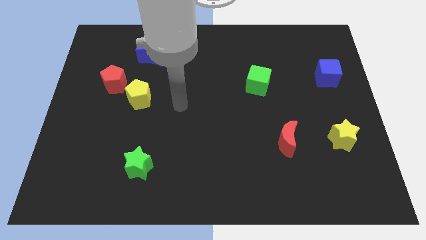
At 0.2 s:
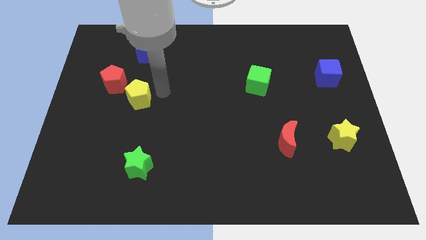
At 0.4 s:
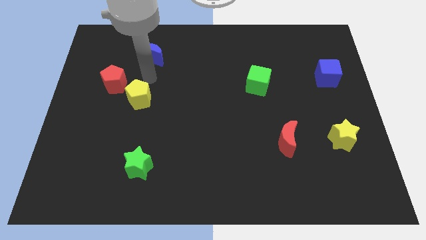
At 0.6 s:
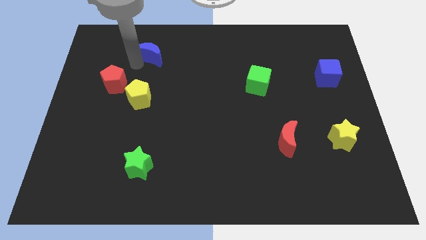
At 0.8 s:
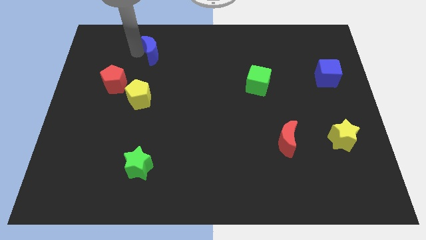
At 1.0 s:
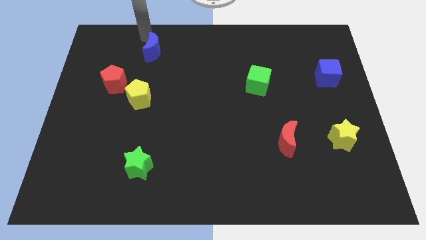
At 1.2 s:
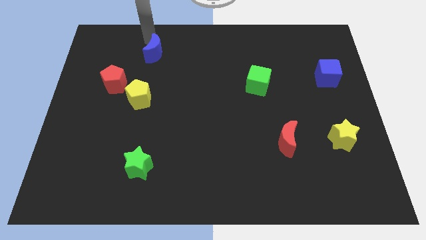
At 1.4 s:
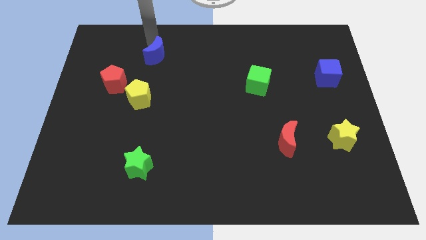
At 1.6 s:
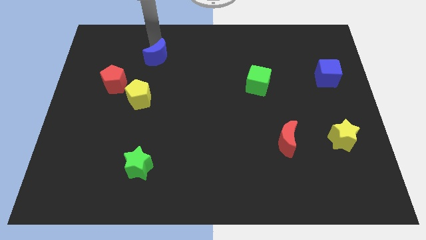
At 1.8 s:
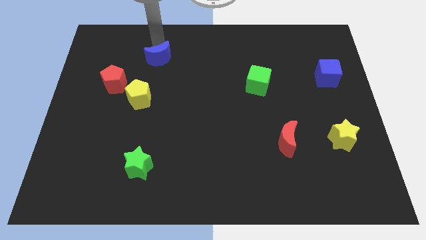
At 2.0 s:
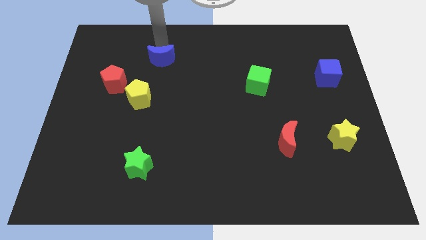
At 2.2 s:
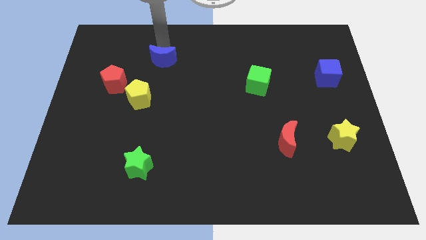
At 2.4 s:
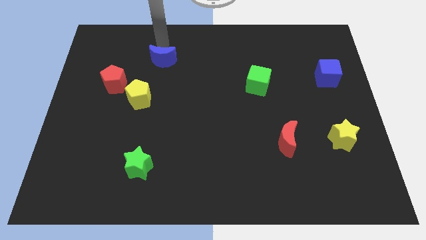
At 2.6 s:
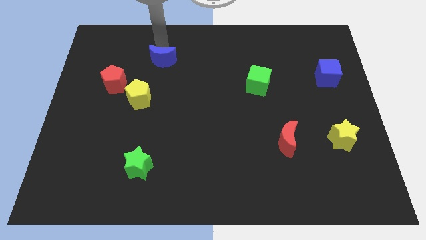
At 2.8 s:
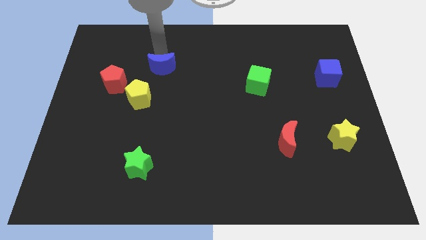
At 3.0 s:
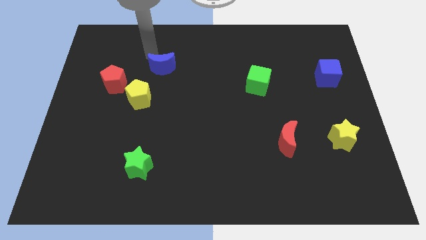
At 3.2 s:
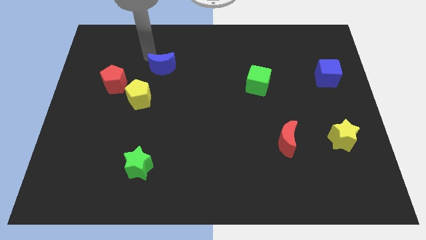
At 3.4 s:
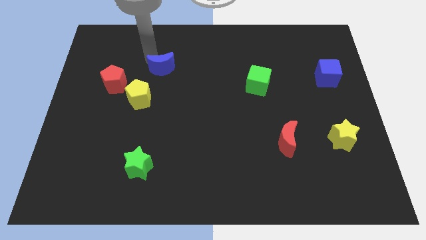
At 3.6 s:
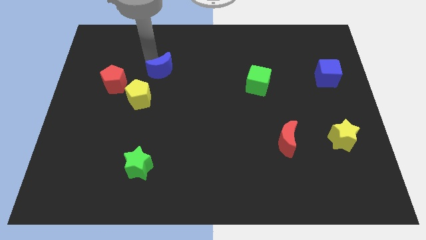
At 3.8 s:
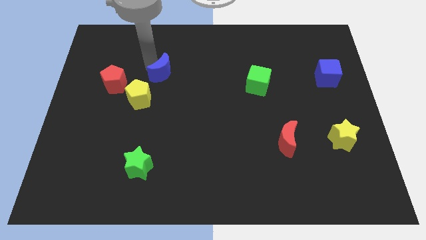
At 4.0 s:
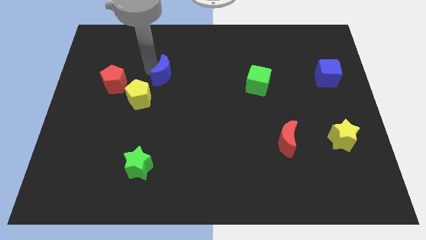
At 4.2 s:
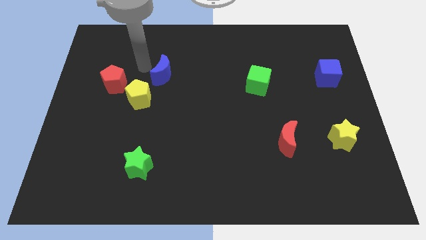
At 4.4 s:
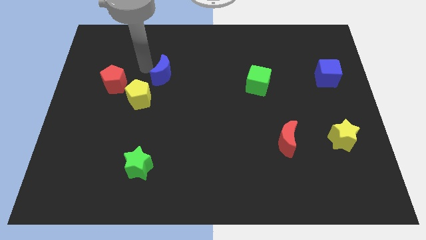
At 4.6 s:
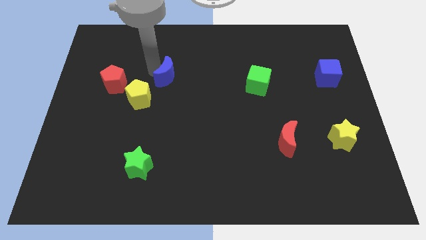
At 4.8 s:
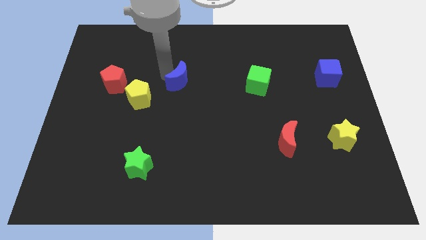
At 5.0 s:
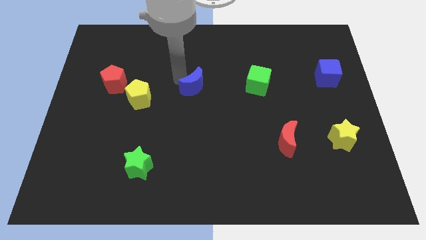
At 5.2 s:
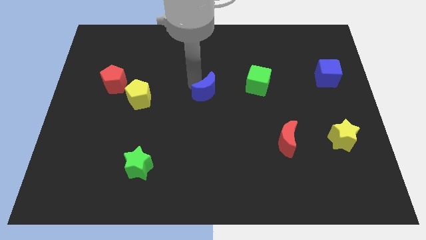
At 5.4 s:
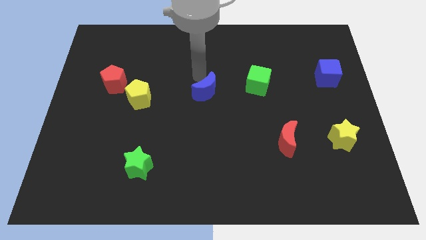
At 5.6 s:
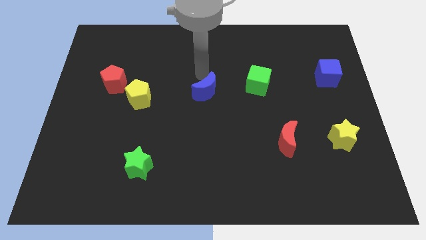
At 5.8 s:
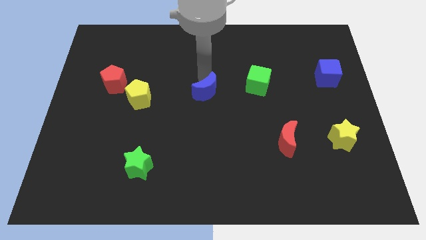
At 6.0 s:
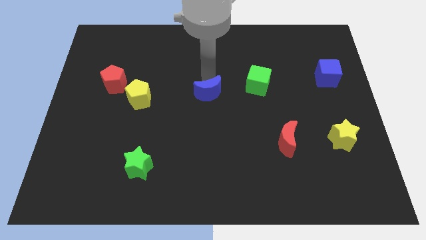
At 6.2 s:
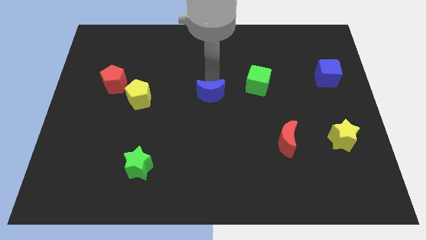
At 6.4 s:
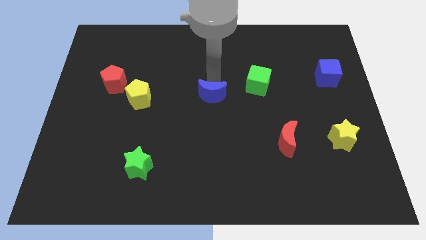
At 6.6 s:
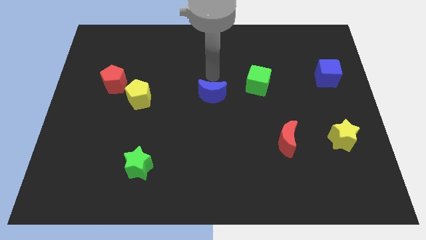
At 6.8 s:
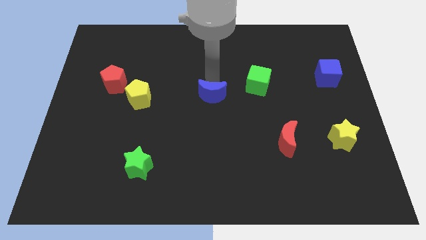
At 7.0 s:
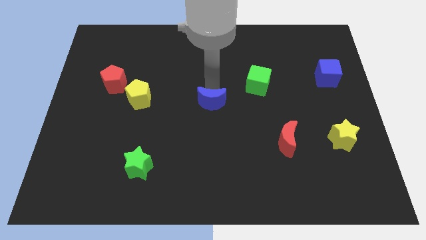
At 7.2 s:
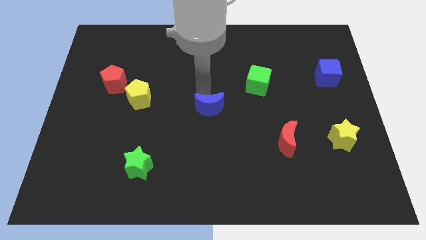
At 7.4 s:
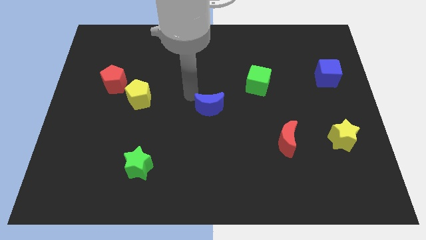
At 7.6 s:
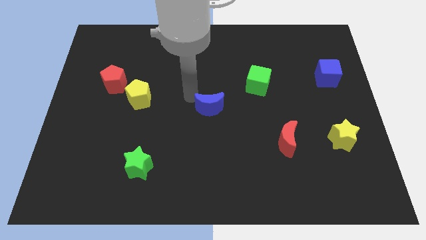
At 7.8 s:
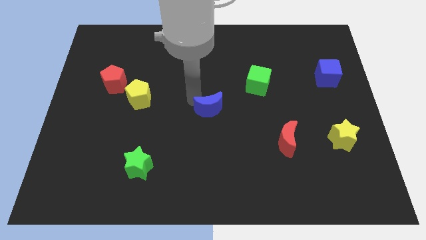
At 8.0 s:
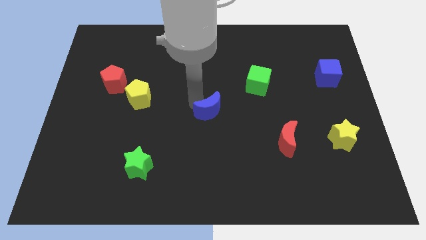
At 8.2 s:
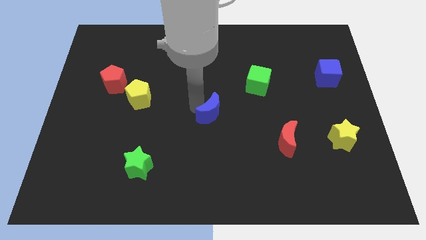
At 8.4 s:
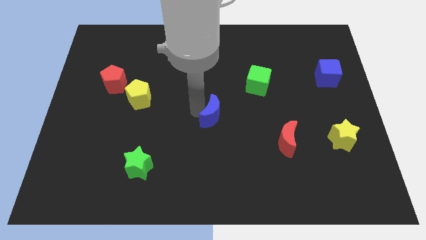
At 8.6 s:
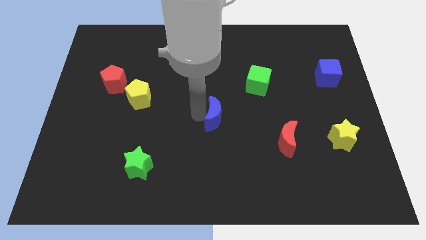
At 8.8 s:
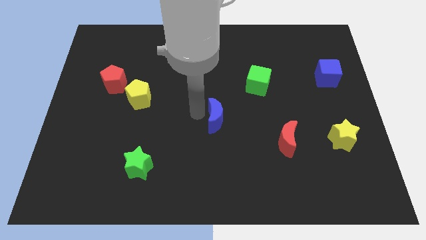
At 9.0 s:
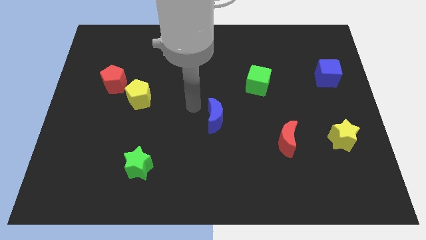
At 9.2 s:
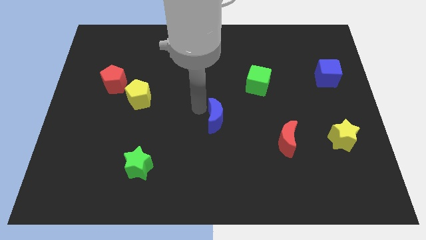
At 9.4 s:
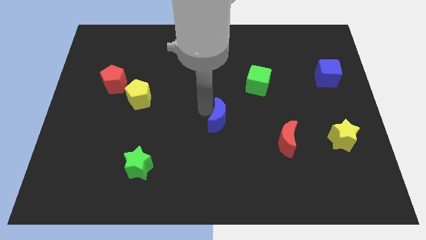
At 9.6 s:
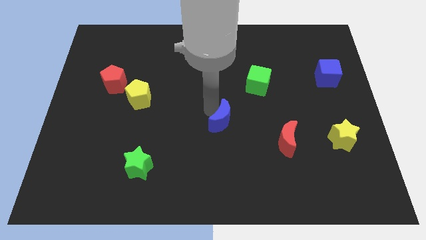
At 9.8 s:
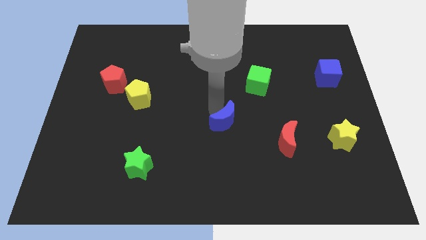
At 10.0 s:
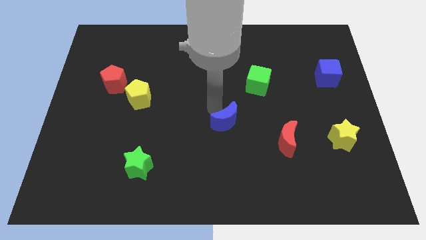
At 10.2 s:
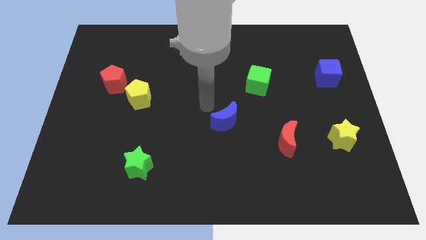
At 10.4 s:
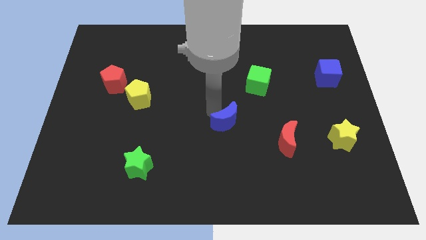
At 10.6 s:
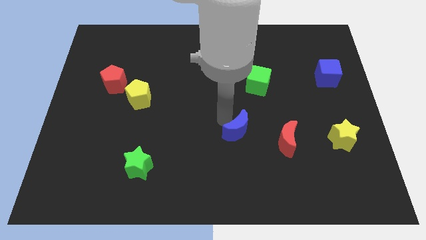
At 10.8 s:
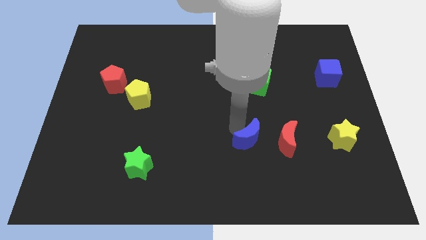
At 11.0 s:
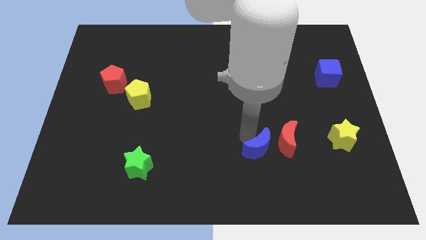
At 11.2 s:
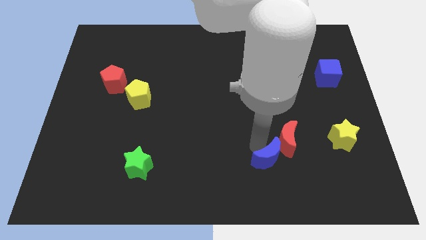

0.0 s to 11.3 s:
slide the blue moon to the bottom side of the red moon

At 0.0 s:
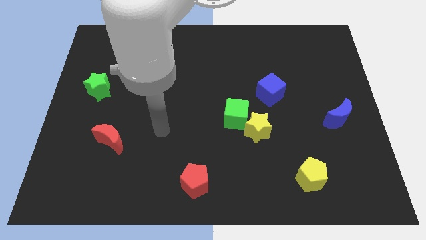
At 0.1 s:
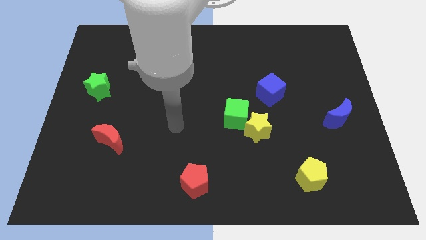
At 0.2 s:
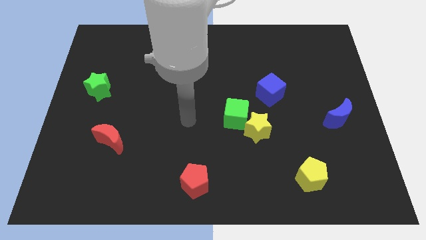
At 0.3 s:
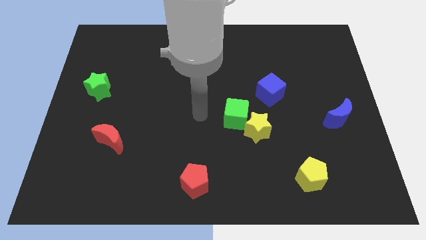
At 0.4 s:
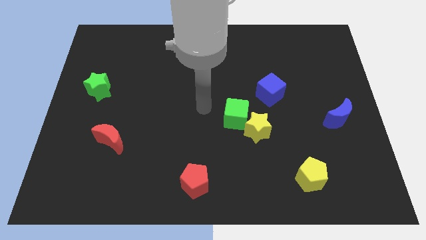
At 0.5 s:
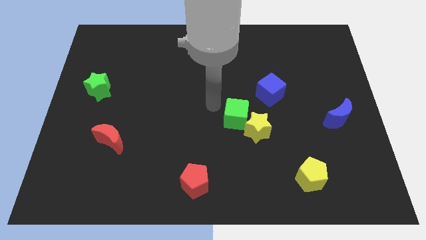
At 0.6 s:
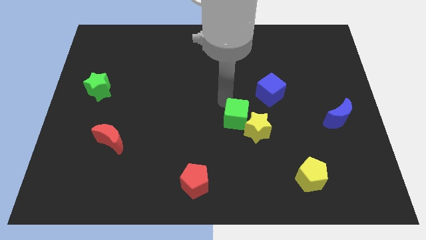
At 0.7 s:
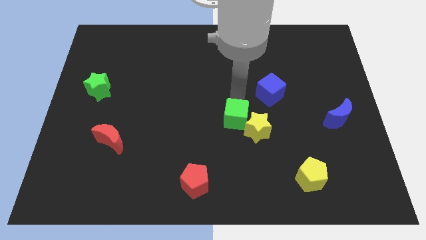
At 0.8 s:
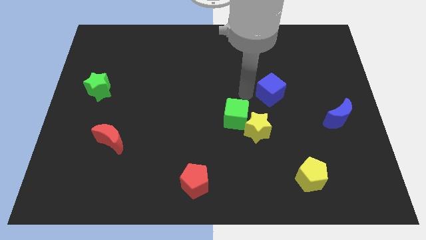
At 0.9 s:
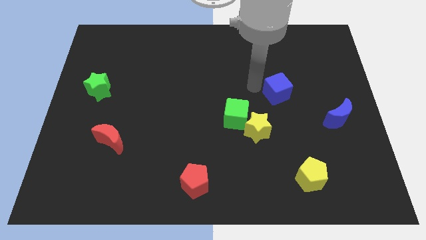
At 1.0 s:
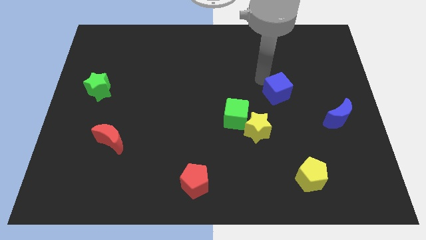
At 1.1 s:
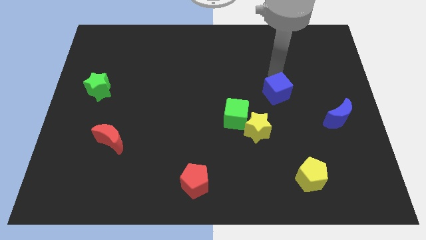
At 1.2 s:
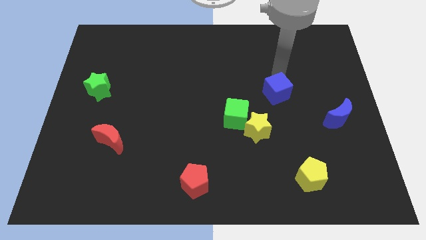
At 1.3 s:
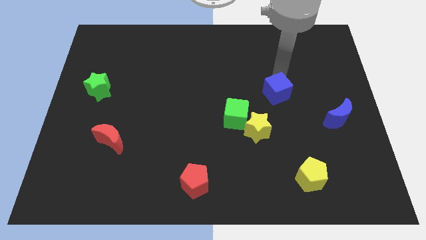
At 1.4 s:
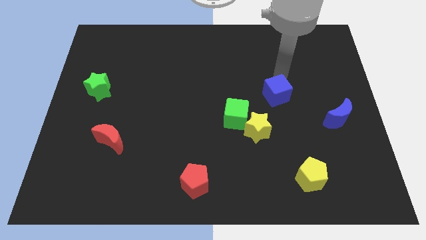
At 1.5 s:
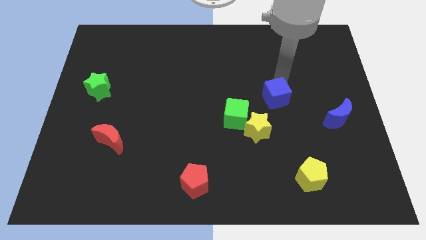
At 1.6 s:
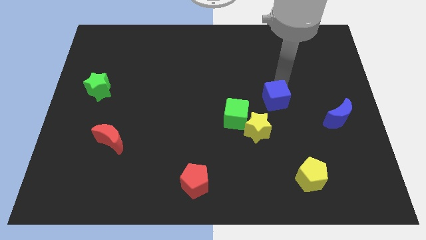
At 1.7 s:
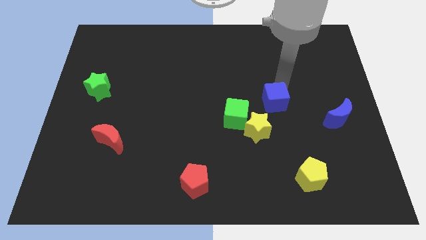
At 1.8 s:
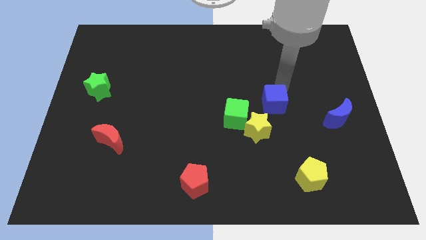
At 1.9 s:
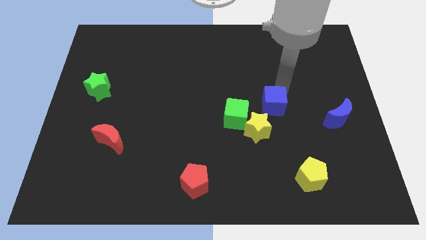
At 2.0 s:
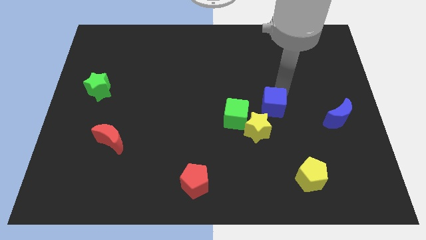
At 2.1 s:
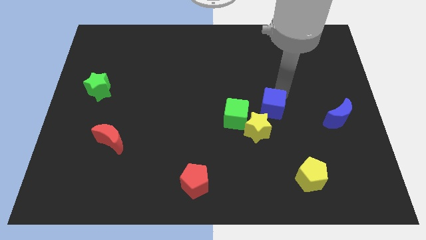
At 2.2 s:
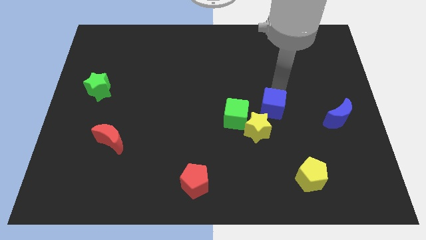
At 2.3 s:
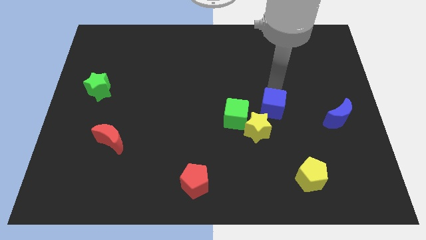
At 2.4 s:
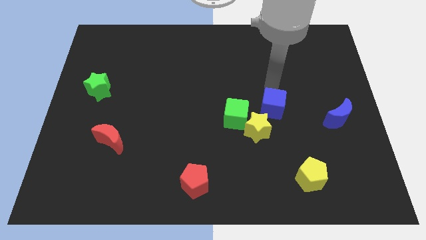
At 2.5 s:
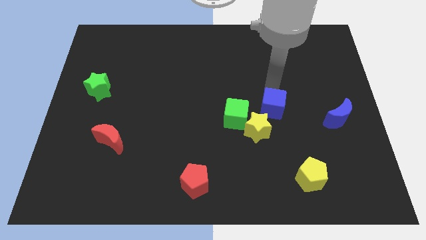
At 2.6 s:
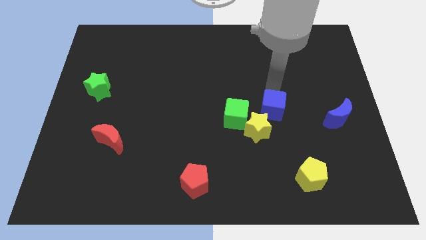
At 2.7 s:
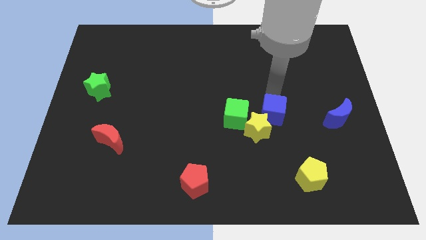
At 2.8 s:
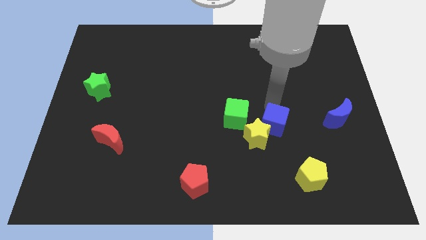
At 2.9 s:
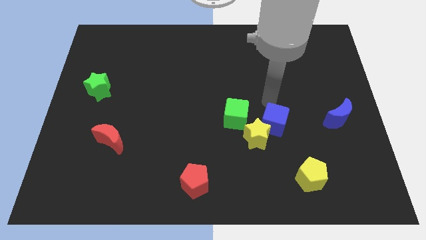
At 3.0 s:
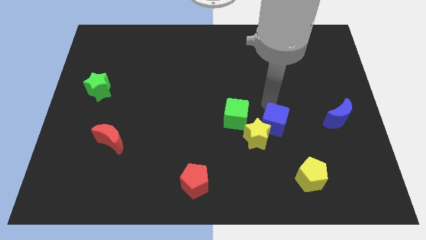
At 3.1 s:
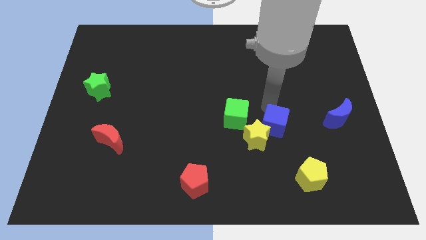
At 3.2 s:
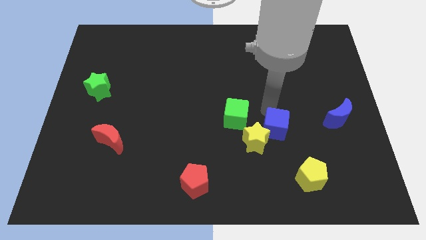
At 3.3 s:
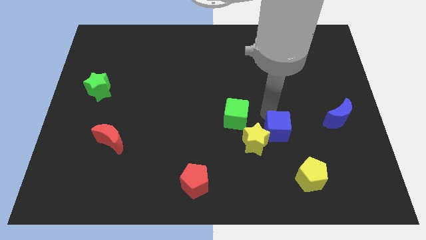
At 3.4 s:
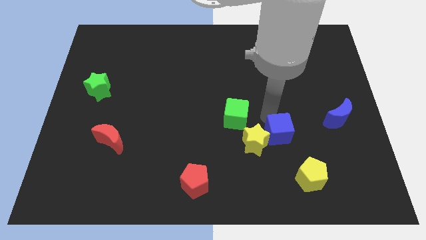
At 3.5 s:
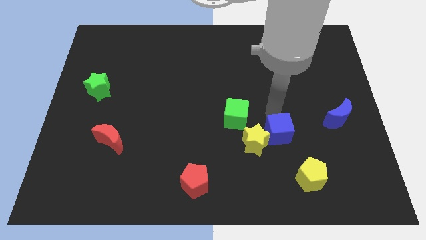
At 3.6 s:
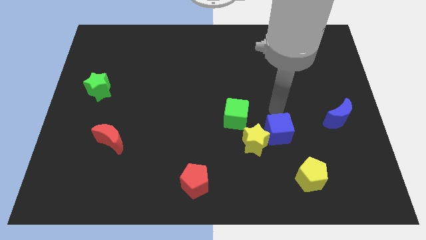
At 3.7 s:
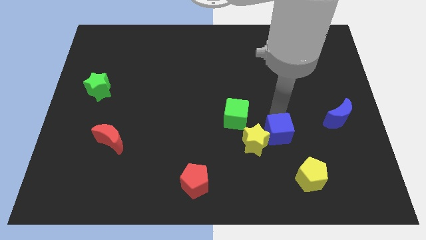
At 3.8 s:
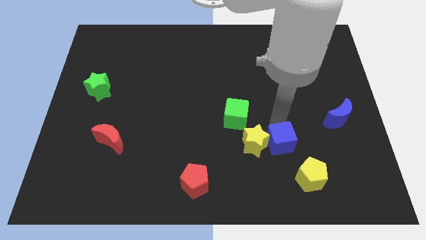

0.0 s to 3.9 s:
push the blue cube to the bottom right of the yellow star
